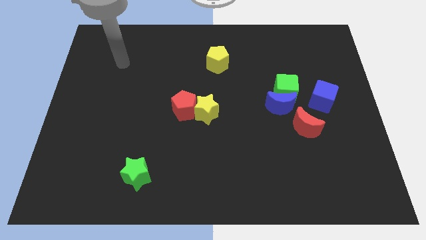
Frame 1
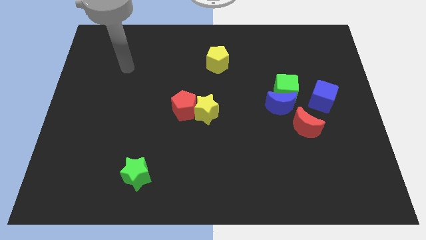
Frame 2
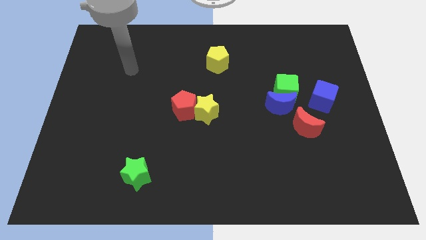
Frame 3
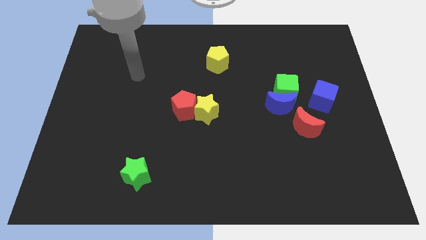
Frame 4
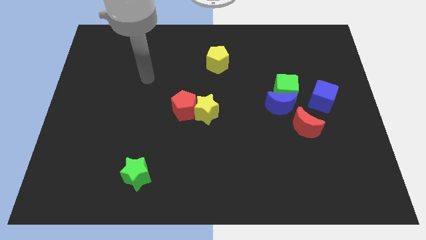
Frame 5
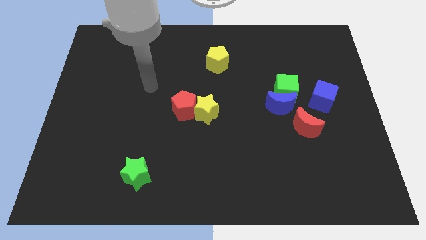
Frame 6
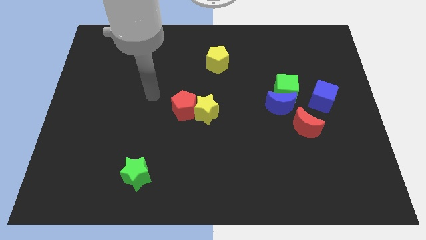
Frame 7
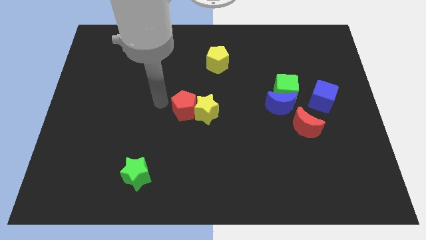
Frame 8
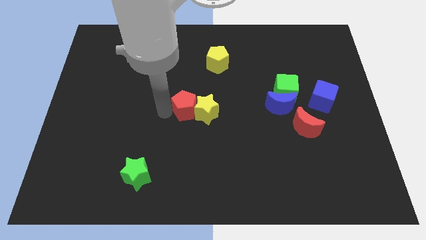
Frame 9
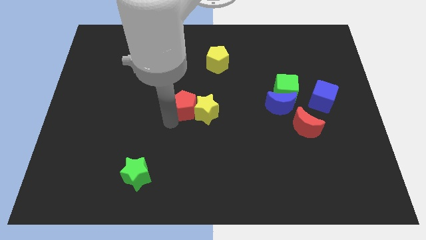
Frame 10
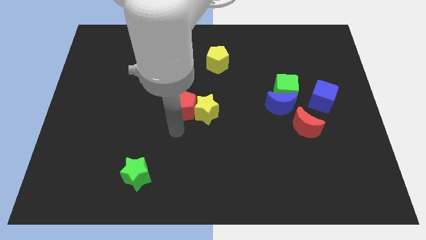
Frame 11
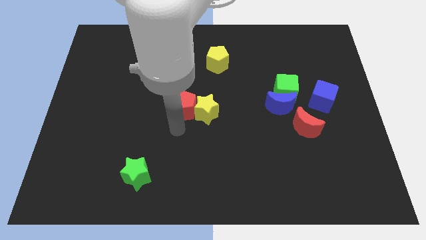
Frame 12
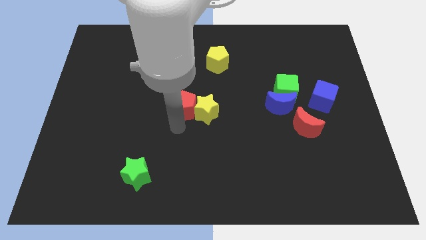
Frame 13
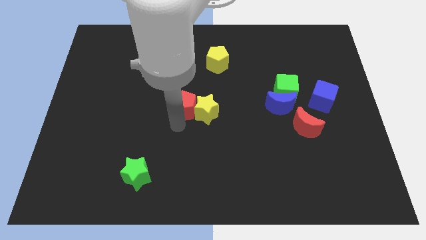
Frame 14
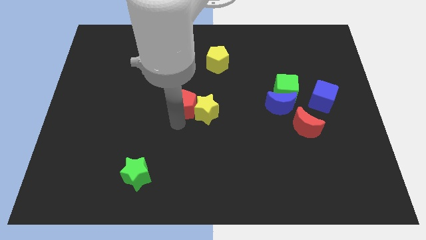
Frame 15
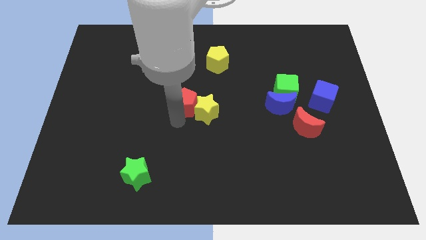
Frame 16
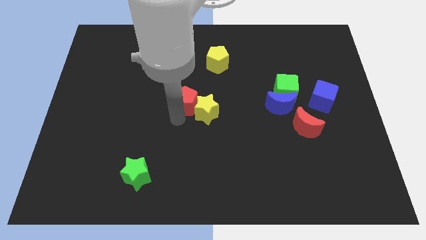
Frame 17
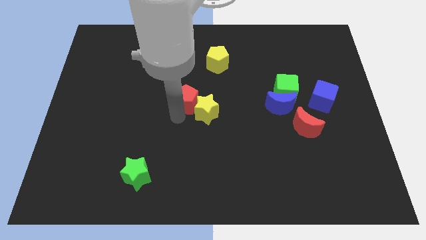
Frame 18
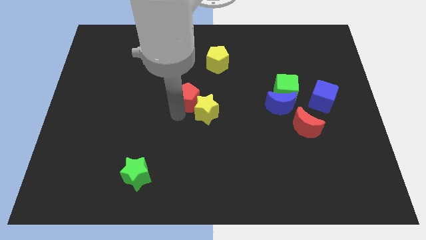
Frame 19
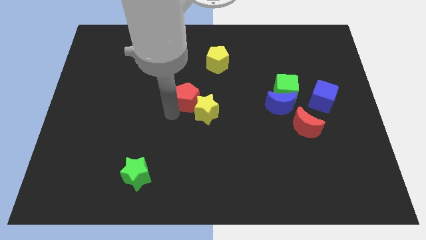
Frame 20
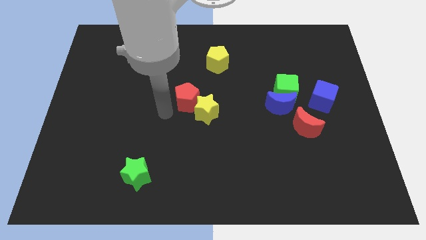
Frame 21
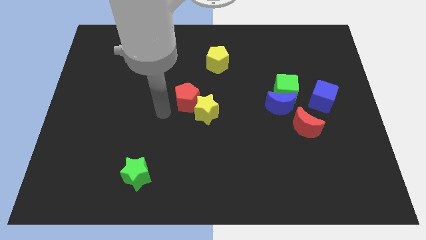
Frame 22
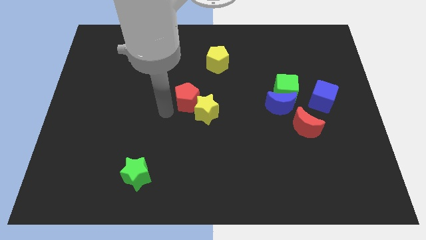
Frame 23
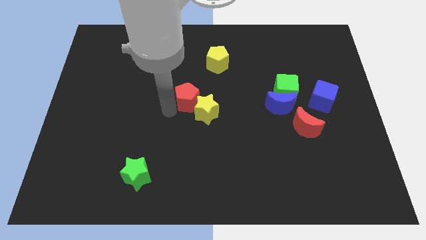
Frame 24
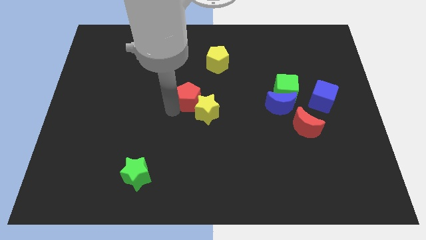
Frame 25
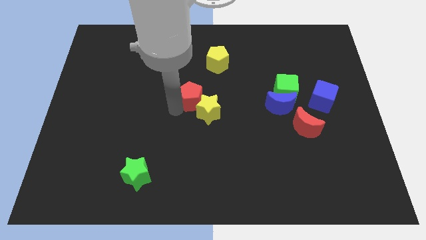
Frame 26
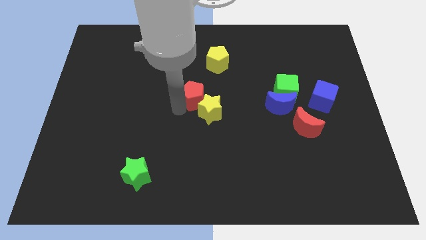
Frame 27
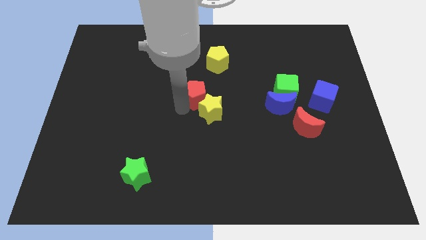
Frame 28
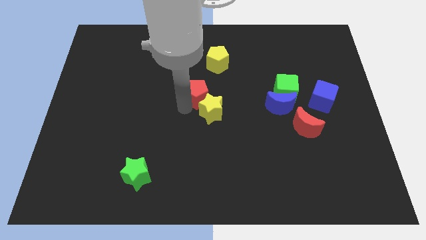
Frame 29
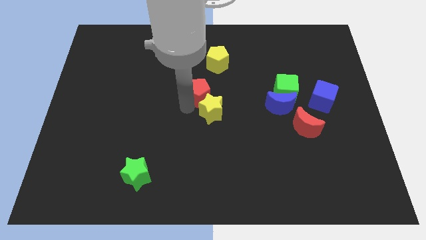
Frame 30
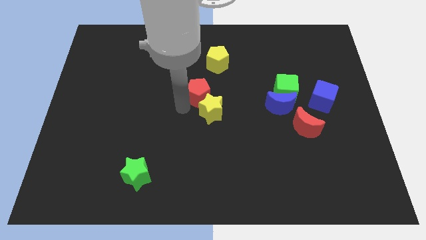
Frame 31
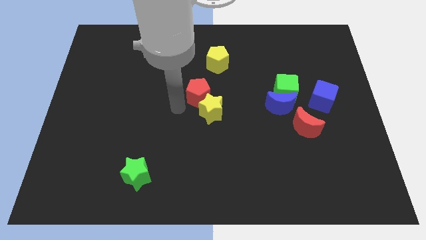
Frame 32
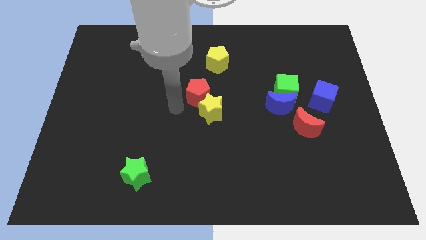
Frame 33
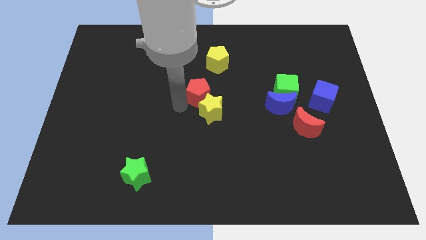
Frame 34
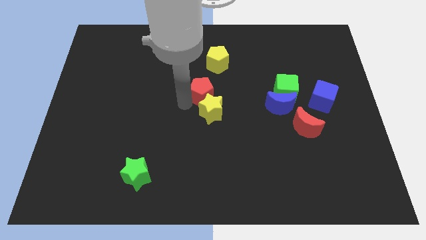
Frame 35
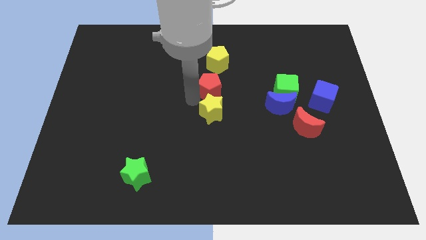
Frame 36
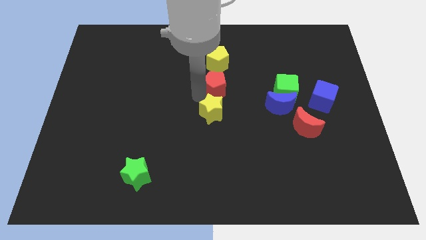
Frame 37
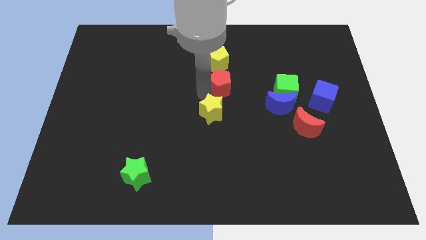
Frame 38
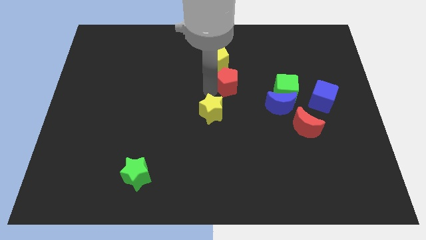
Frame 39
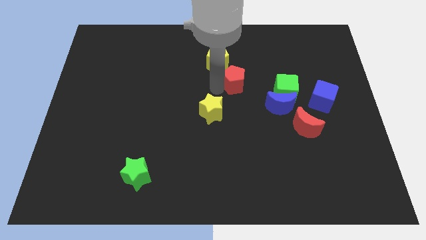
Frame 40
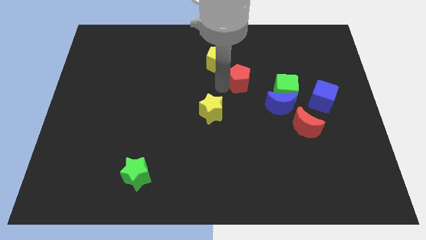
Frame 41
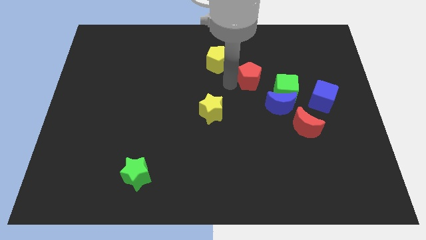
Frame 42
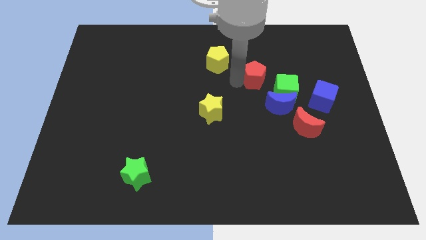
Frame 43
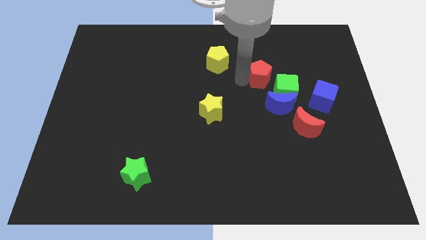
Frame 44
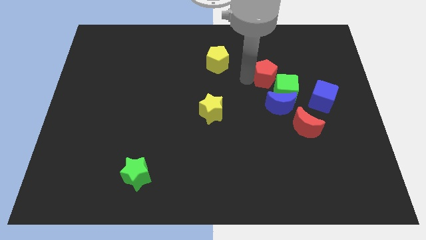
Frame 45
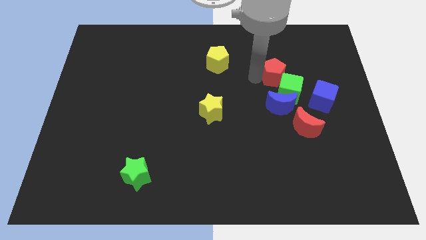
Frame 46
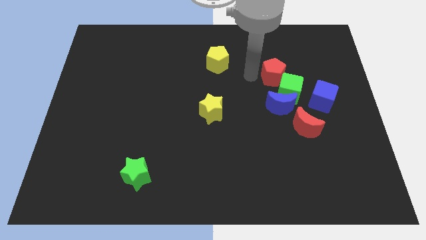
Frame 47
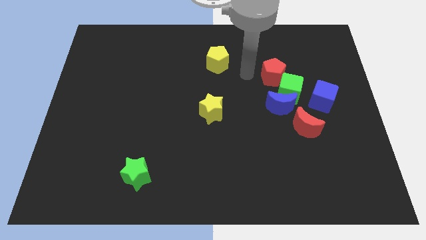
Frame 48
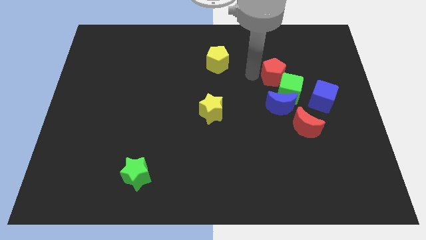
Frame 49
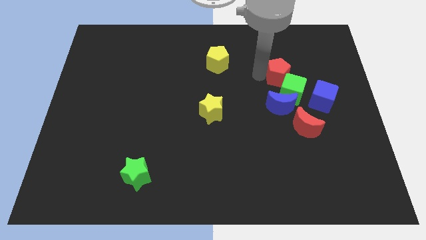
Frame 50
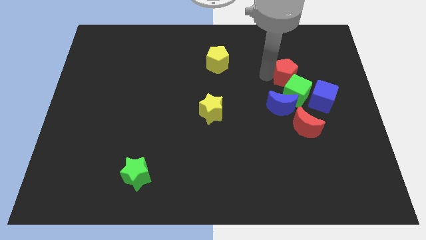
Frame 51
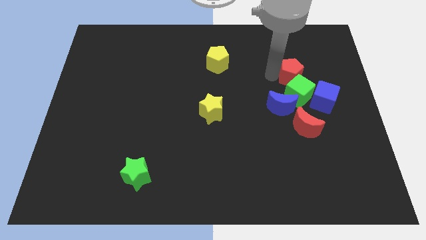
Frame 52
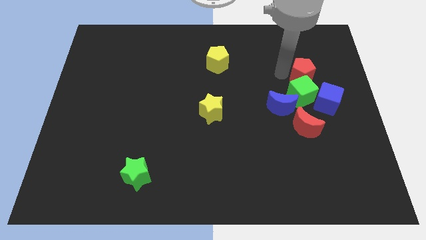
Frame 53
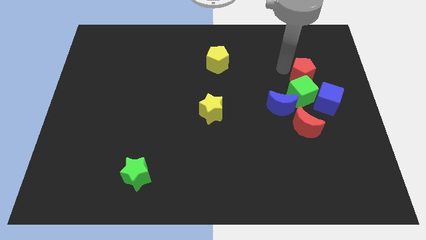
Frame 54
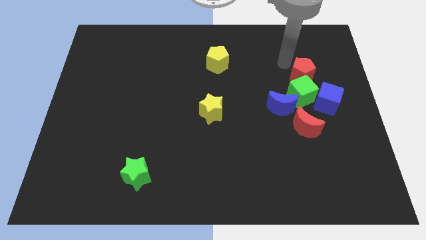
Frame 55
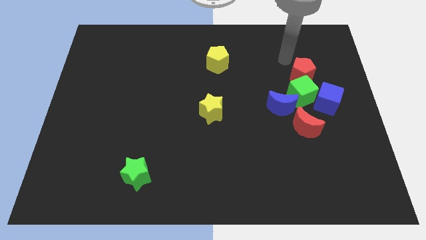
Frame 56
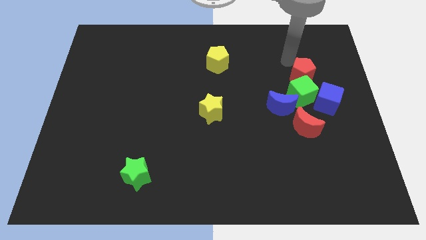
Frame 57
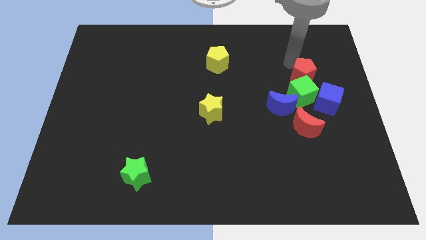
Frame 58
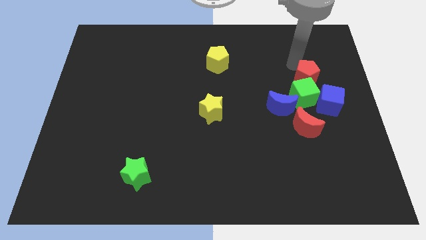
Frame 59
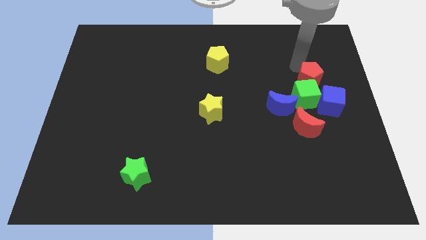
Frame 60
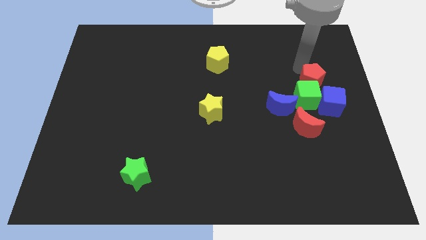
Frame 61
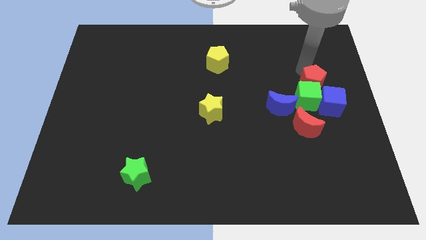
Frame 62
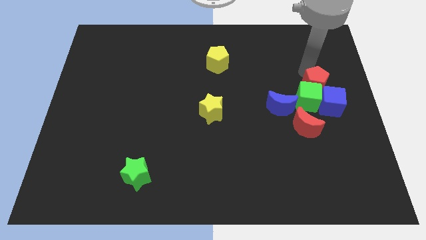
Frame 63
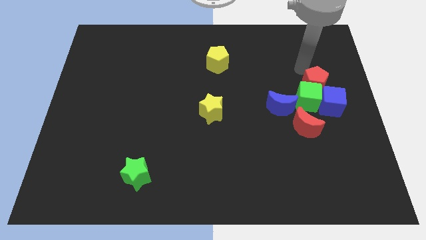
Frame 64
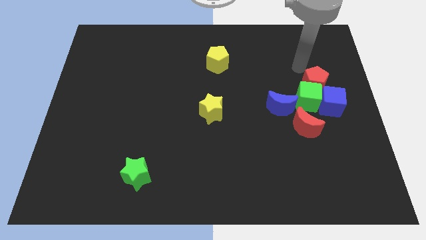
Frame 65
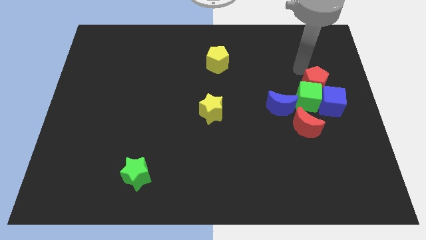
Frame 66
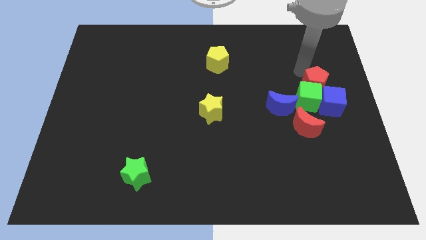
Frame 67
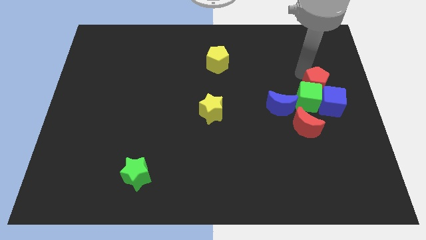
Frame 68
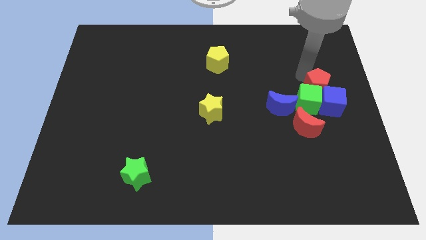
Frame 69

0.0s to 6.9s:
put the red pentagon towards the blue cube

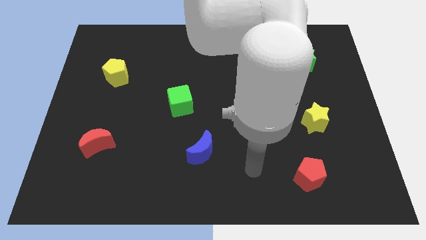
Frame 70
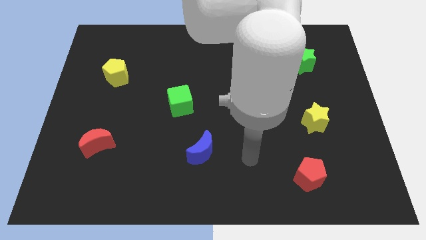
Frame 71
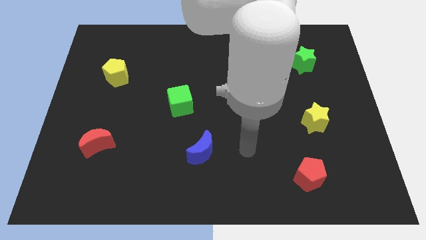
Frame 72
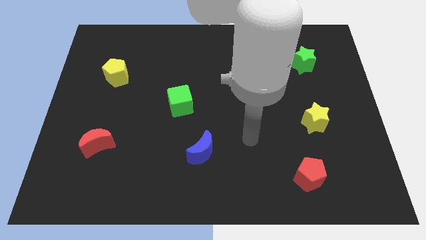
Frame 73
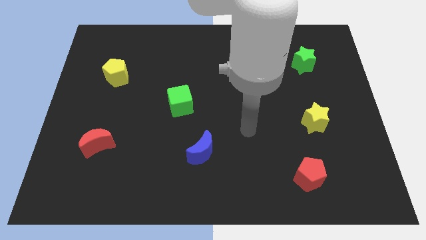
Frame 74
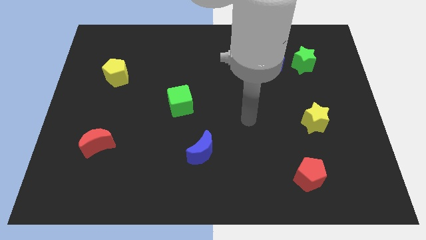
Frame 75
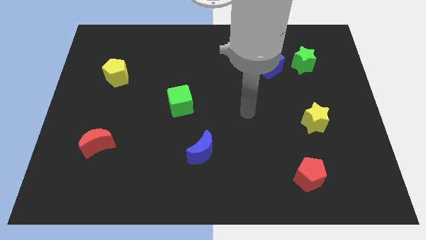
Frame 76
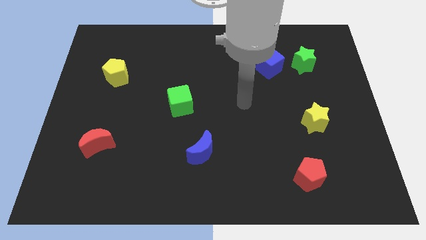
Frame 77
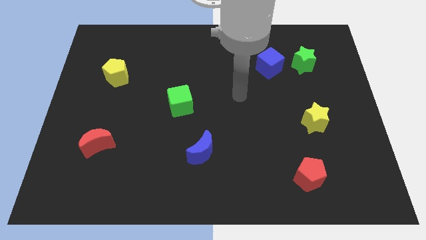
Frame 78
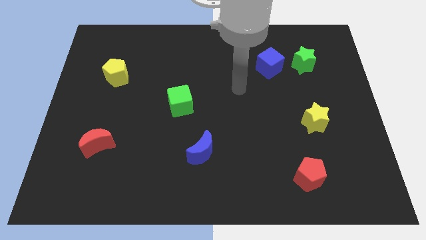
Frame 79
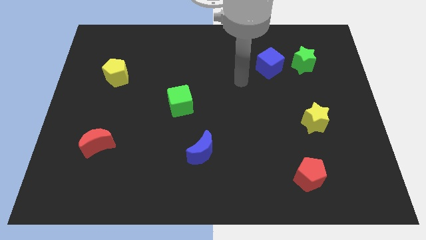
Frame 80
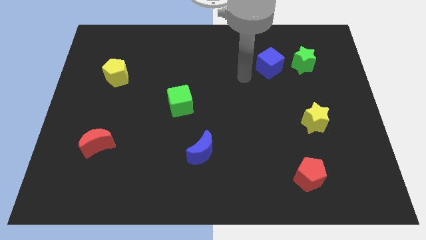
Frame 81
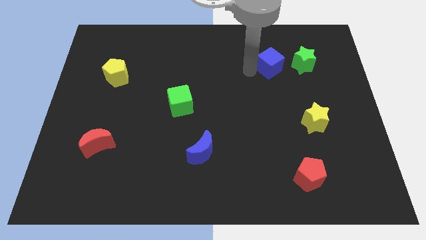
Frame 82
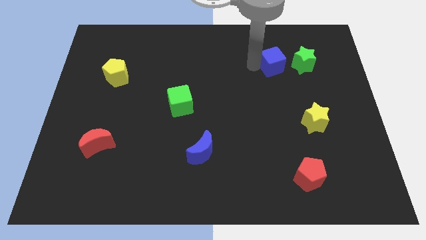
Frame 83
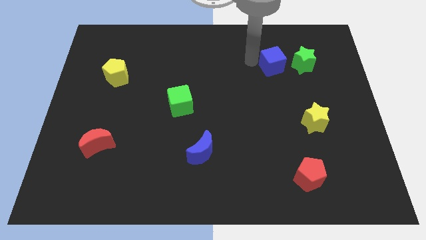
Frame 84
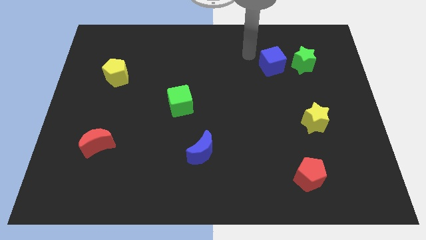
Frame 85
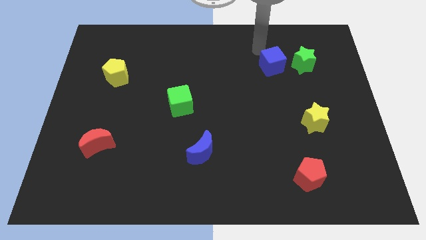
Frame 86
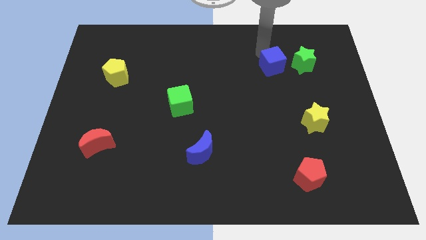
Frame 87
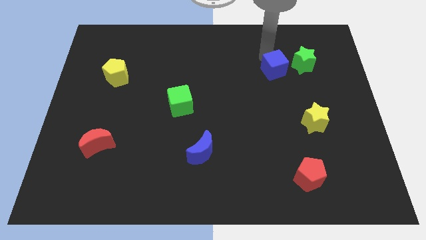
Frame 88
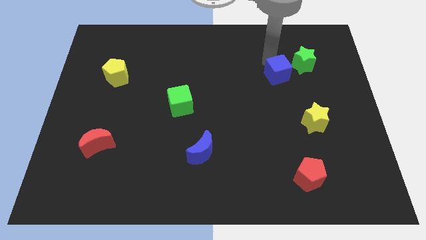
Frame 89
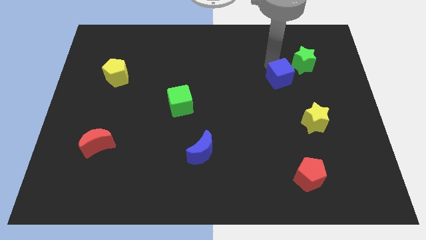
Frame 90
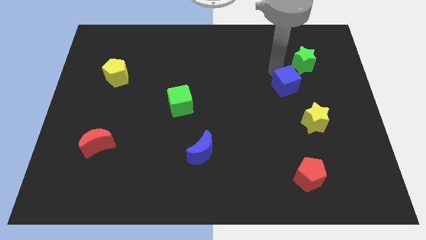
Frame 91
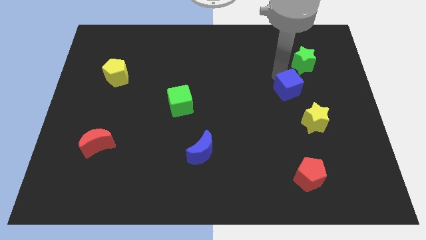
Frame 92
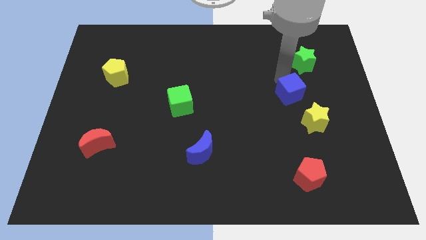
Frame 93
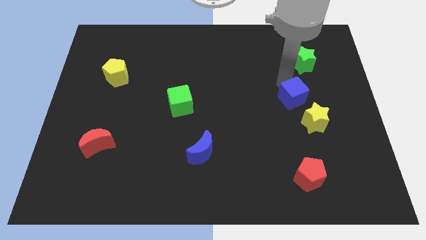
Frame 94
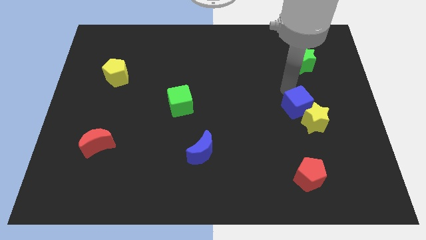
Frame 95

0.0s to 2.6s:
move the blue cube next to the yellow star
